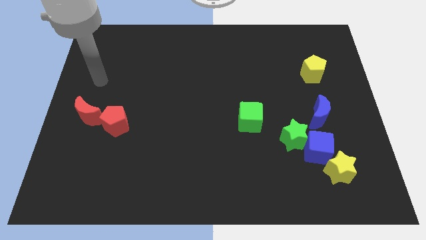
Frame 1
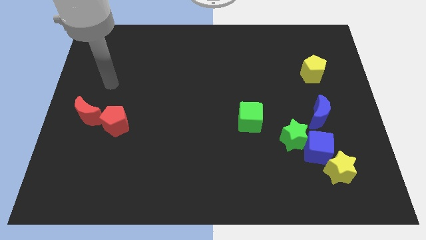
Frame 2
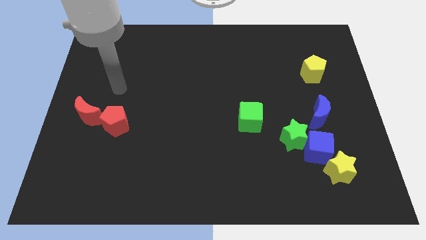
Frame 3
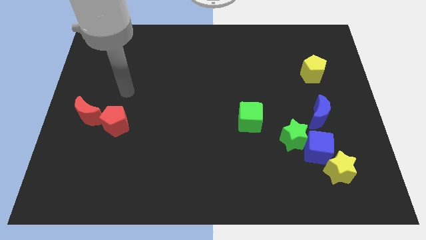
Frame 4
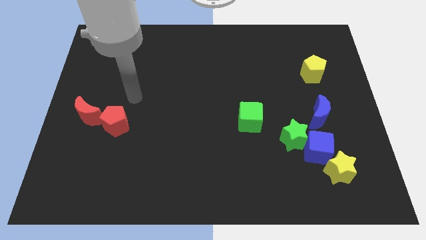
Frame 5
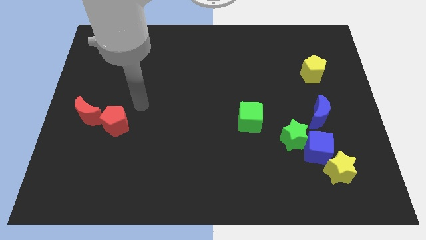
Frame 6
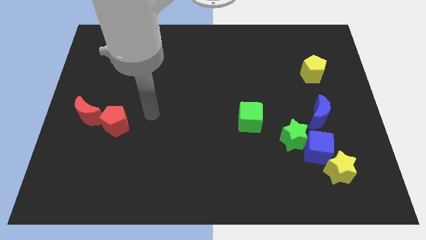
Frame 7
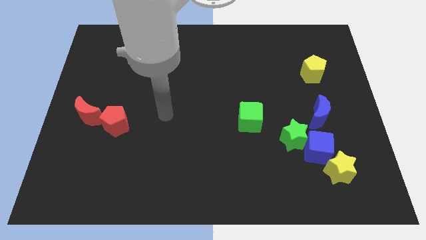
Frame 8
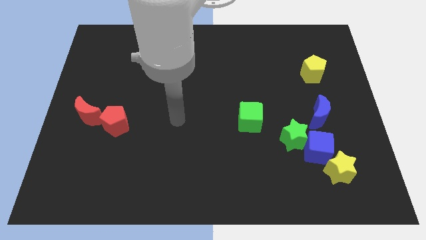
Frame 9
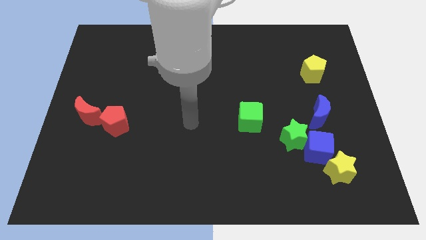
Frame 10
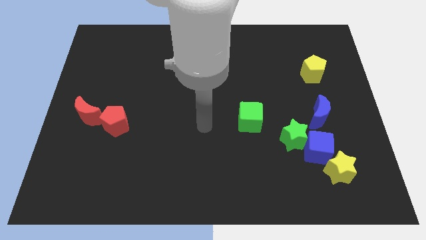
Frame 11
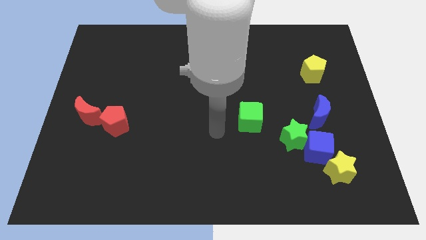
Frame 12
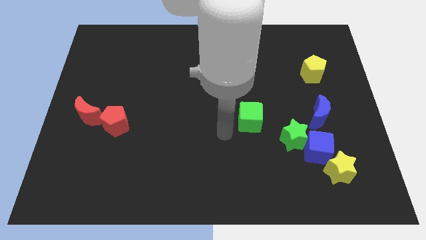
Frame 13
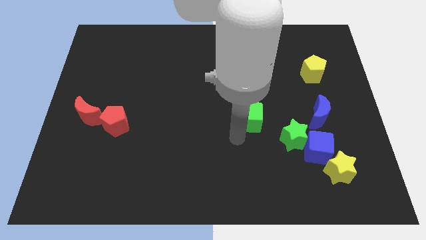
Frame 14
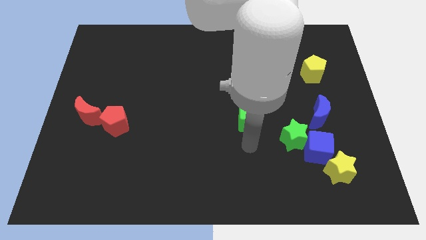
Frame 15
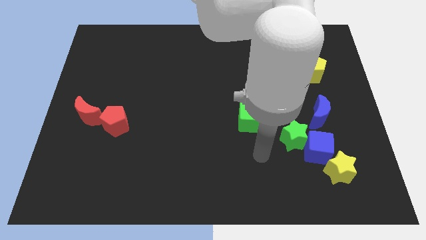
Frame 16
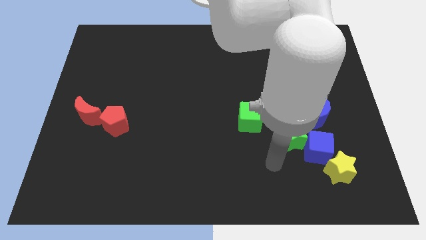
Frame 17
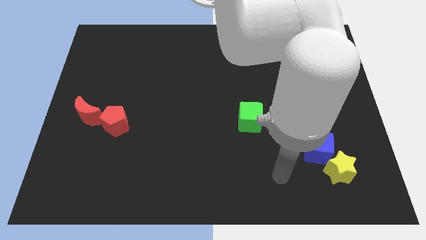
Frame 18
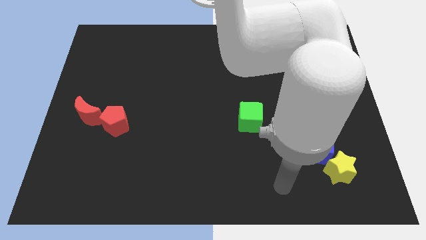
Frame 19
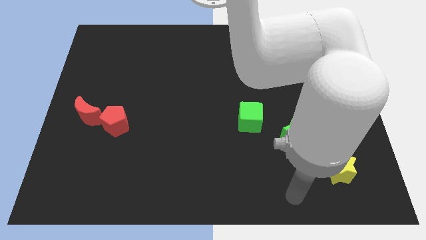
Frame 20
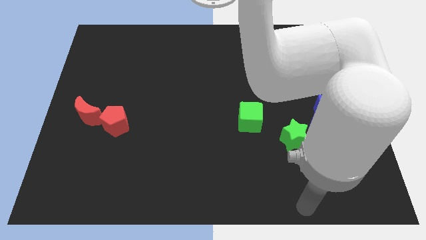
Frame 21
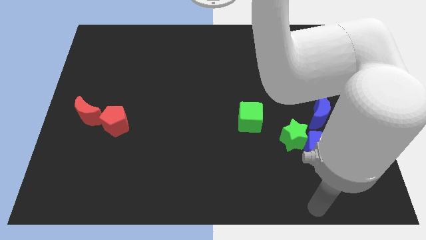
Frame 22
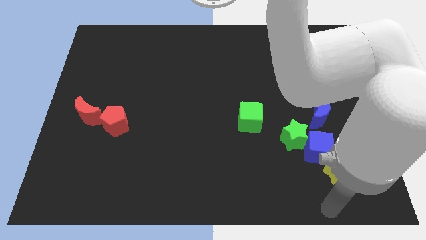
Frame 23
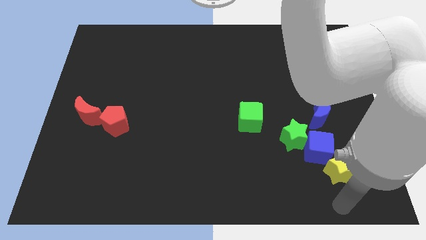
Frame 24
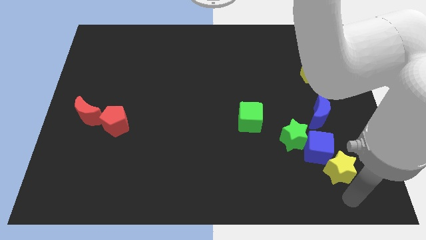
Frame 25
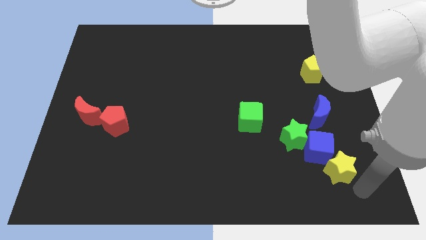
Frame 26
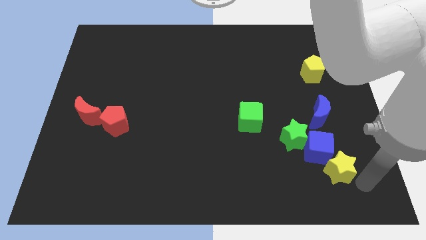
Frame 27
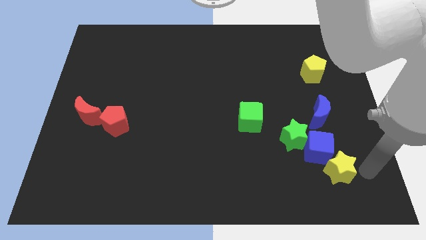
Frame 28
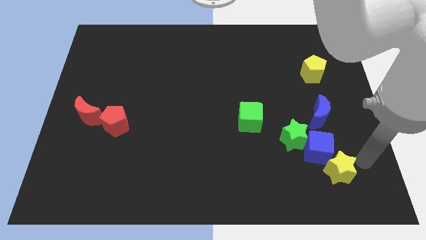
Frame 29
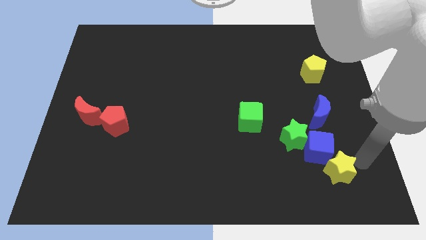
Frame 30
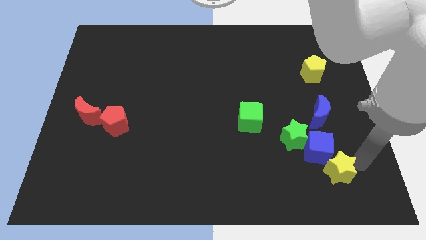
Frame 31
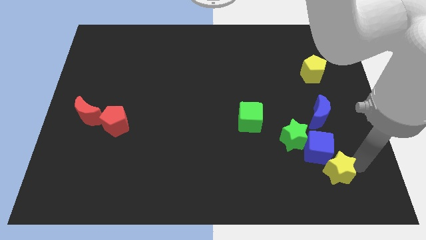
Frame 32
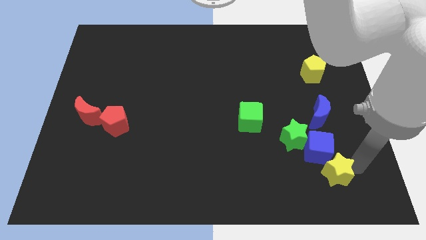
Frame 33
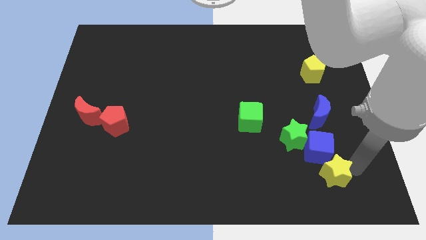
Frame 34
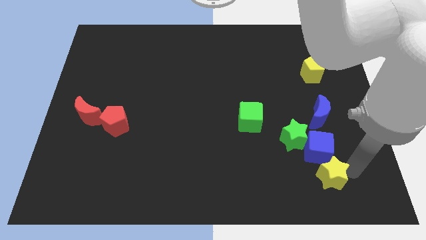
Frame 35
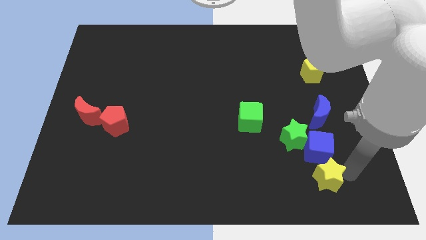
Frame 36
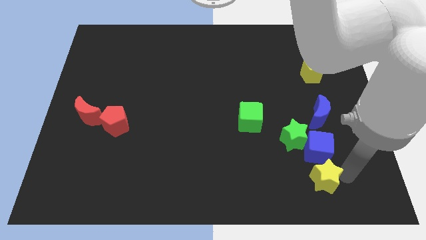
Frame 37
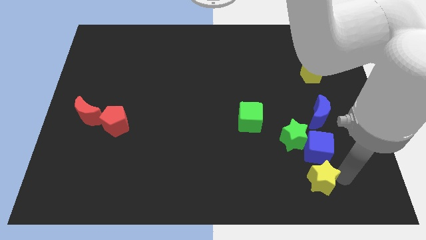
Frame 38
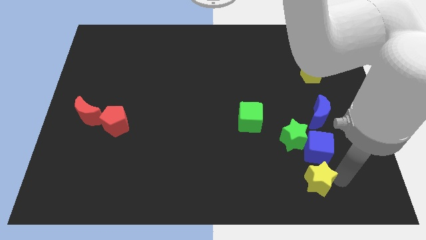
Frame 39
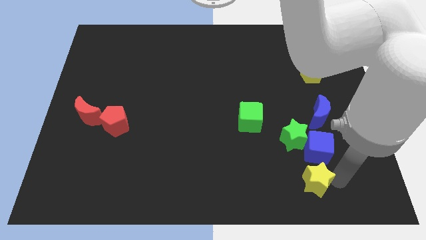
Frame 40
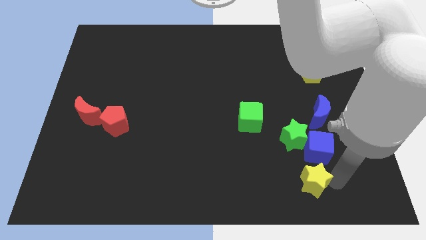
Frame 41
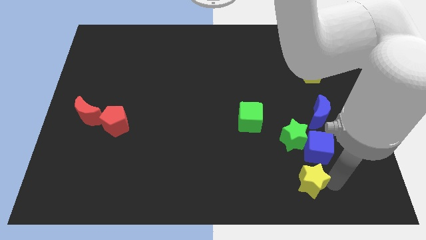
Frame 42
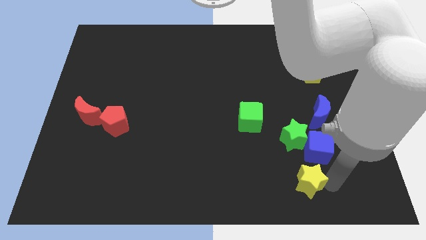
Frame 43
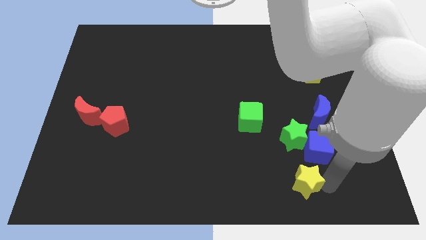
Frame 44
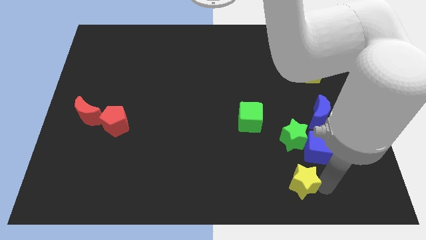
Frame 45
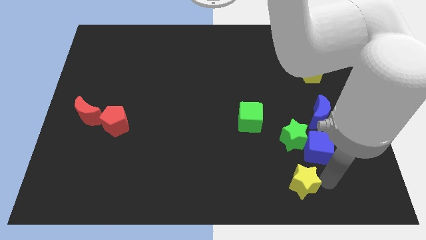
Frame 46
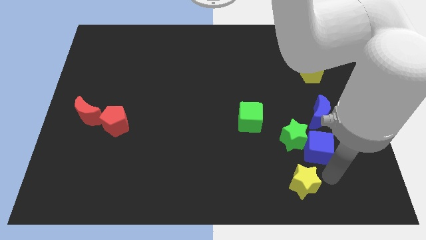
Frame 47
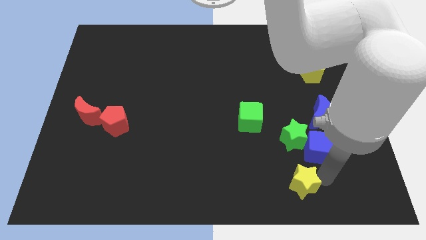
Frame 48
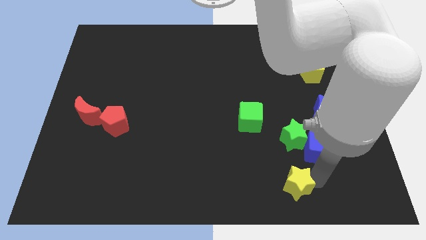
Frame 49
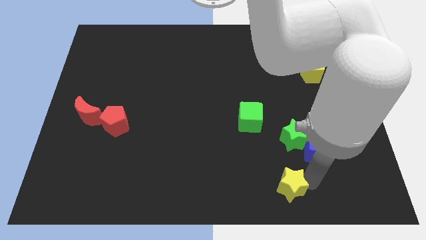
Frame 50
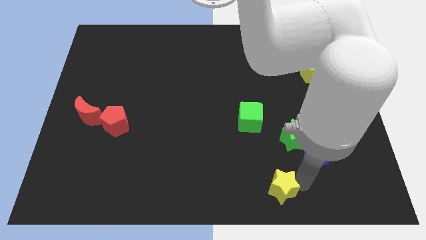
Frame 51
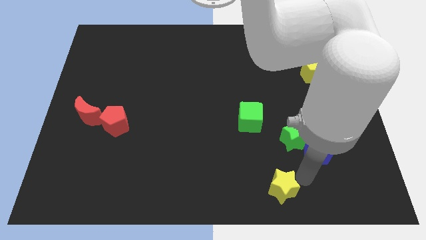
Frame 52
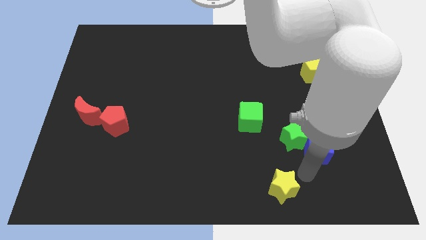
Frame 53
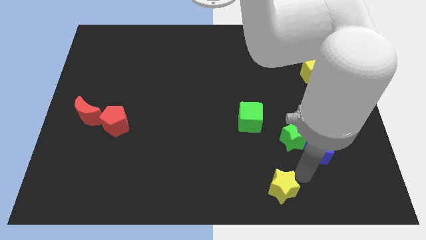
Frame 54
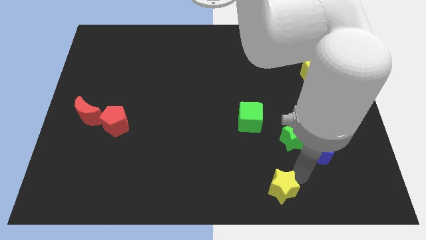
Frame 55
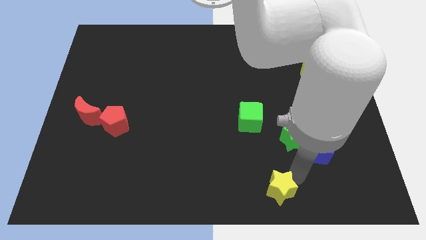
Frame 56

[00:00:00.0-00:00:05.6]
push the yellow star to the bottom
